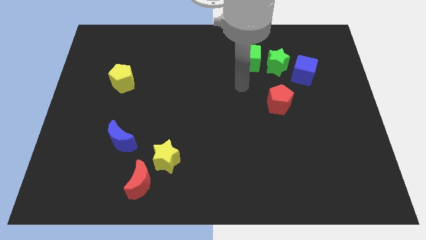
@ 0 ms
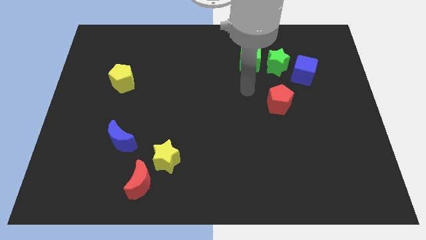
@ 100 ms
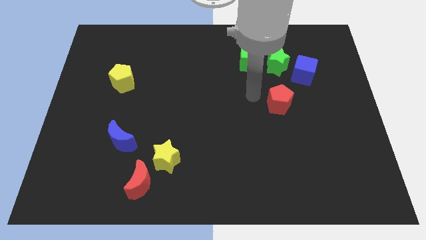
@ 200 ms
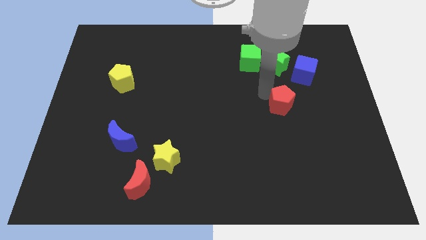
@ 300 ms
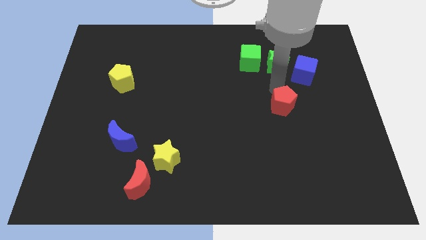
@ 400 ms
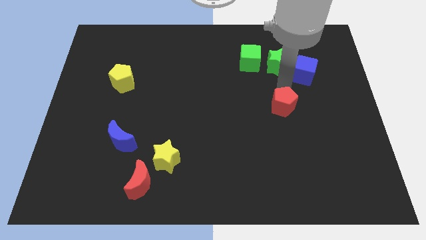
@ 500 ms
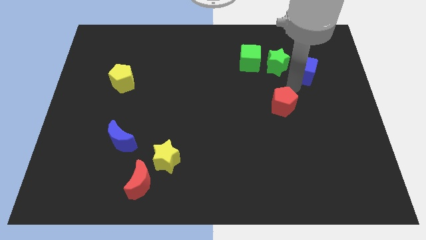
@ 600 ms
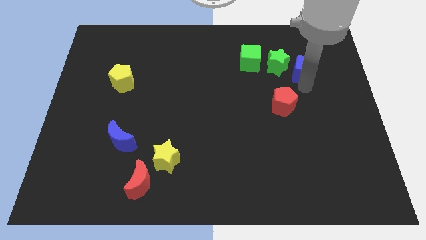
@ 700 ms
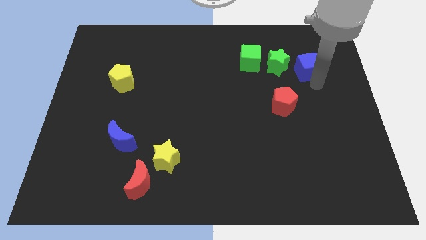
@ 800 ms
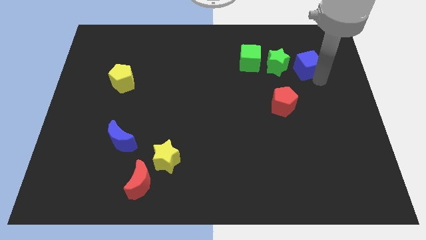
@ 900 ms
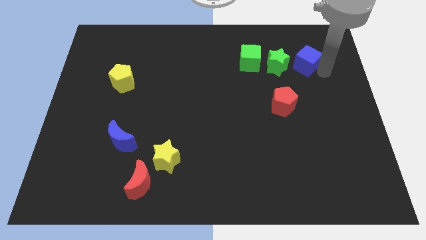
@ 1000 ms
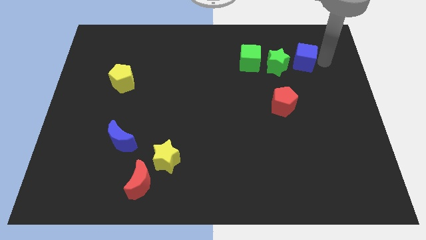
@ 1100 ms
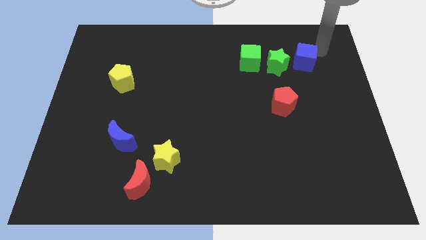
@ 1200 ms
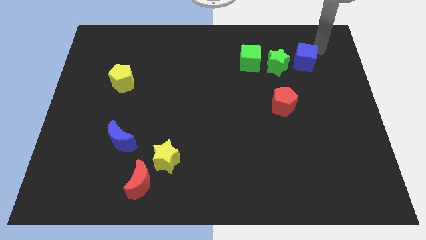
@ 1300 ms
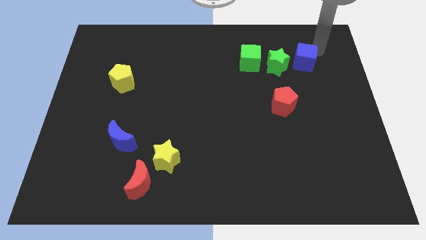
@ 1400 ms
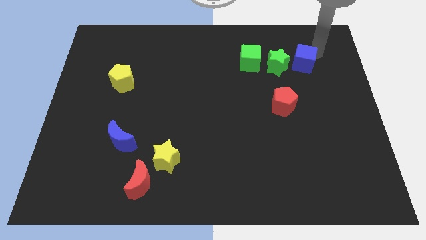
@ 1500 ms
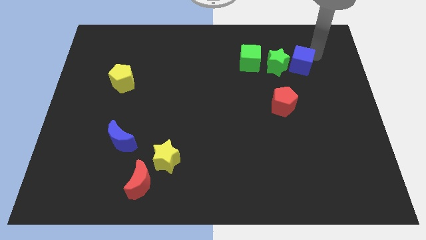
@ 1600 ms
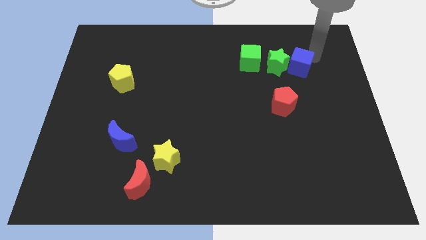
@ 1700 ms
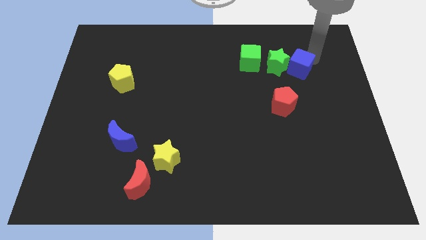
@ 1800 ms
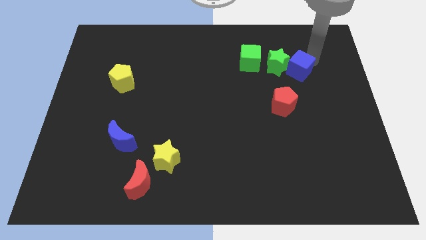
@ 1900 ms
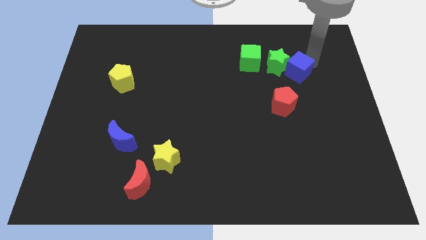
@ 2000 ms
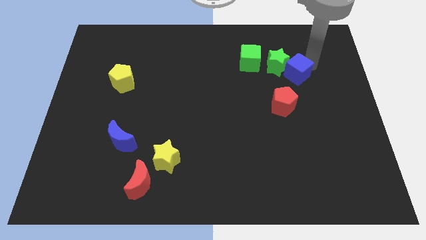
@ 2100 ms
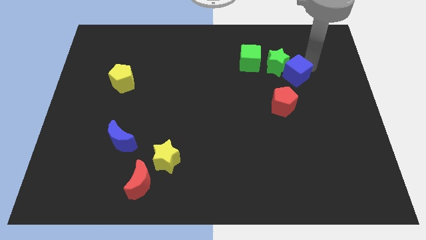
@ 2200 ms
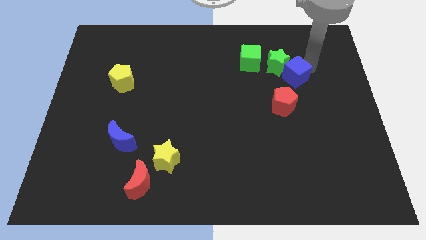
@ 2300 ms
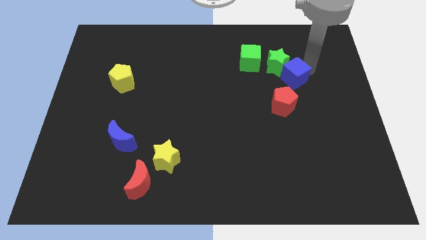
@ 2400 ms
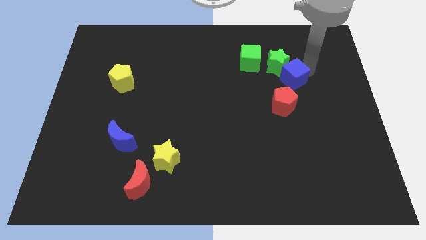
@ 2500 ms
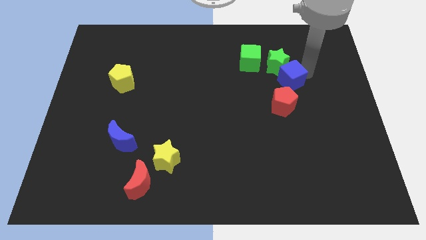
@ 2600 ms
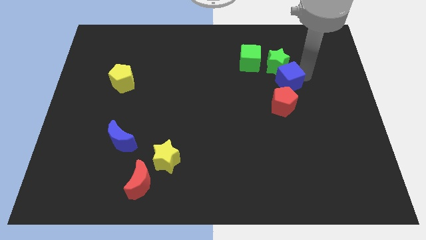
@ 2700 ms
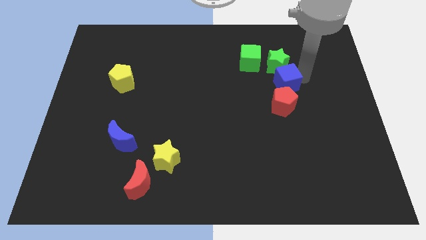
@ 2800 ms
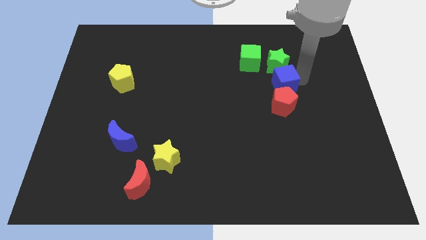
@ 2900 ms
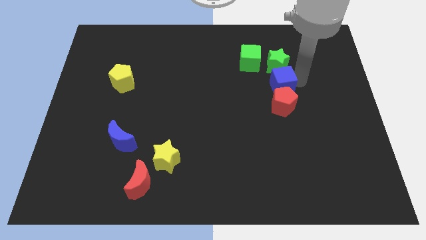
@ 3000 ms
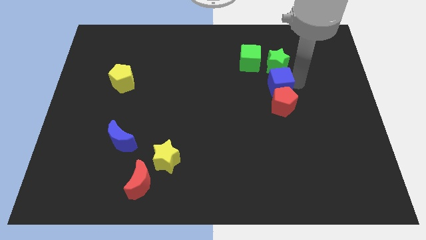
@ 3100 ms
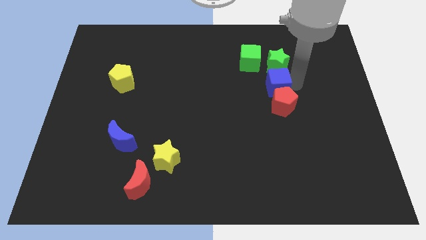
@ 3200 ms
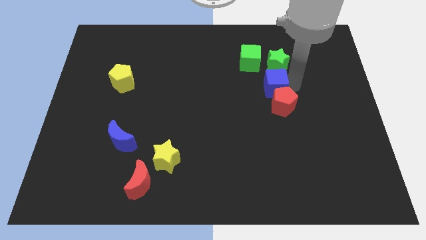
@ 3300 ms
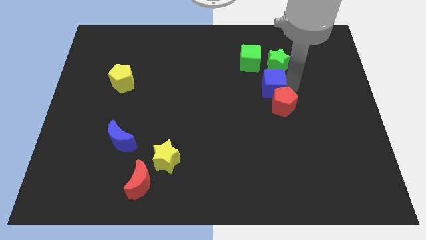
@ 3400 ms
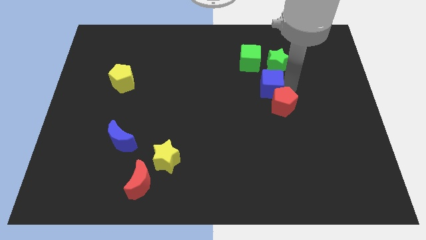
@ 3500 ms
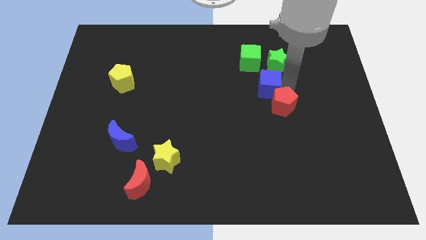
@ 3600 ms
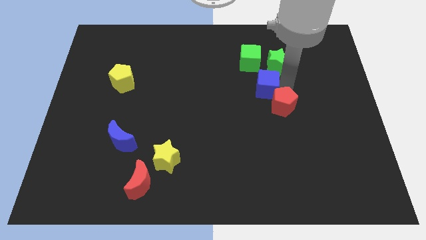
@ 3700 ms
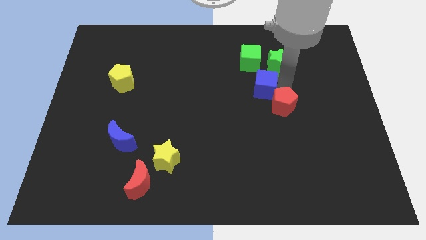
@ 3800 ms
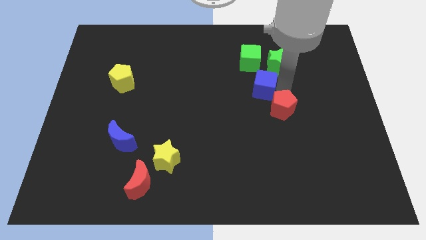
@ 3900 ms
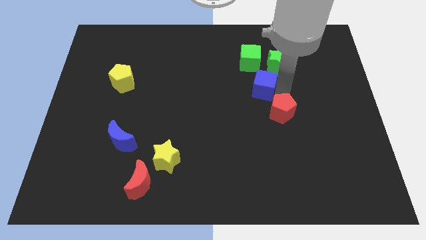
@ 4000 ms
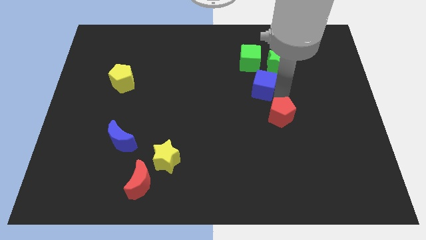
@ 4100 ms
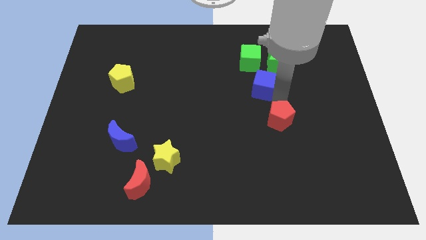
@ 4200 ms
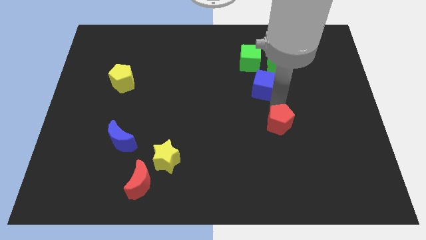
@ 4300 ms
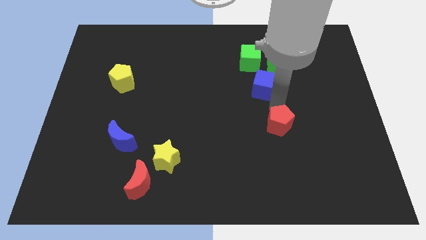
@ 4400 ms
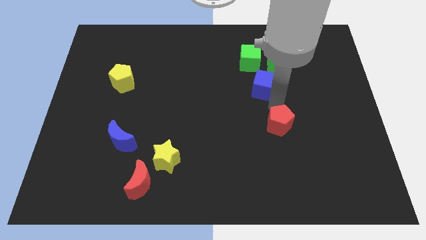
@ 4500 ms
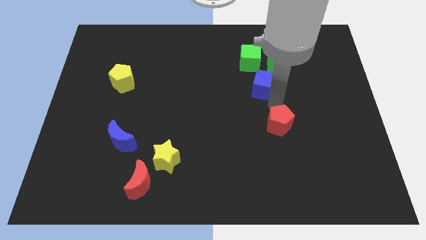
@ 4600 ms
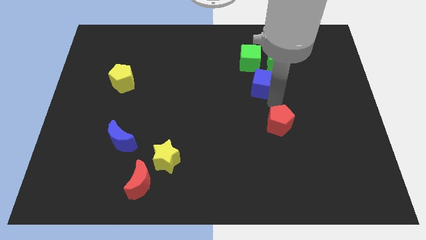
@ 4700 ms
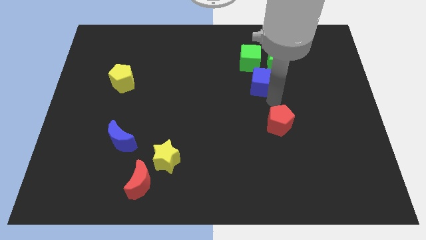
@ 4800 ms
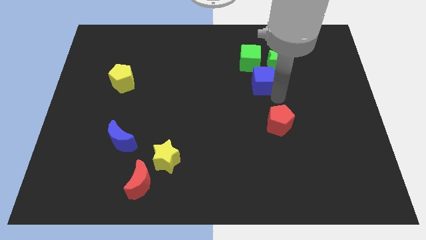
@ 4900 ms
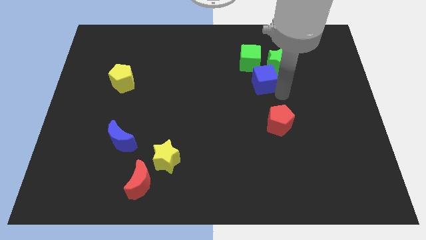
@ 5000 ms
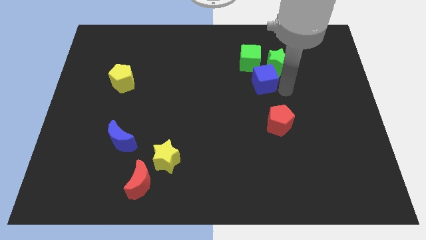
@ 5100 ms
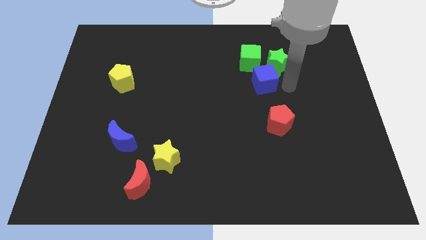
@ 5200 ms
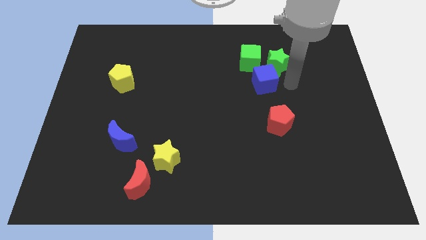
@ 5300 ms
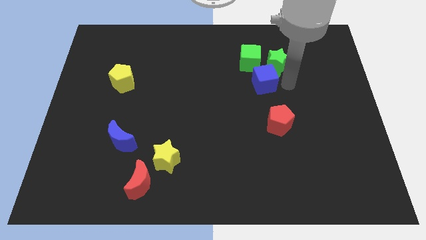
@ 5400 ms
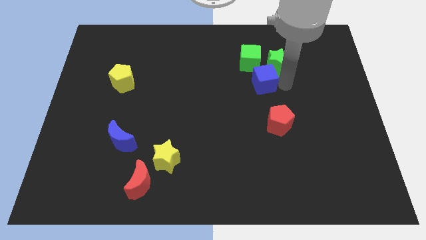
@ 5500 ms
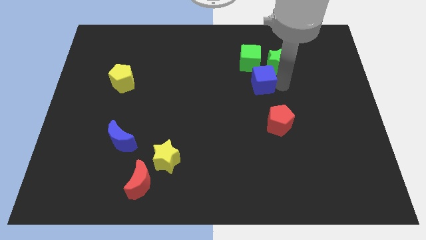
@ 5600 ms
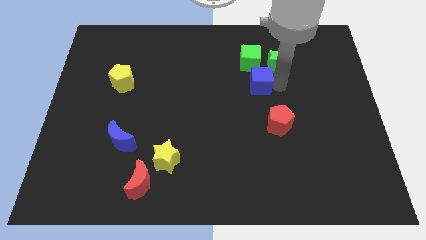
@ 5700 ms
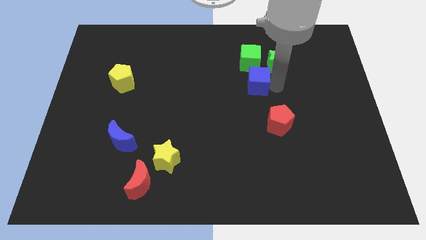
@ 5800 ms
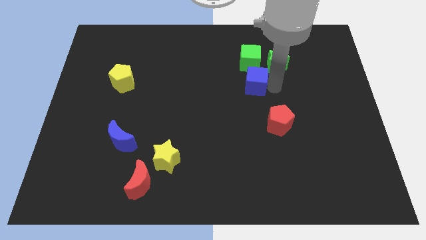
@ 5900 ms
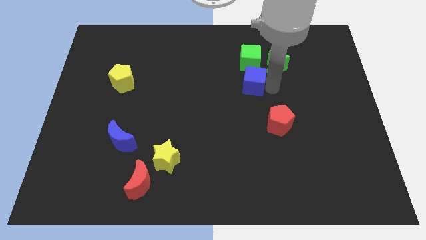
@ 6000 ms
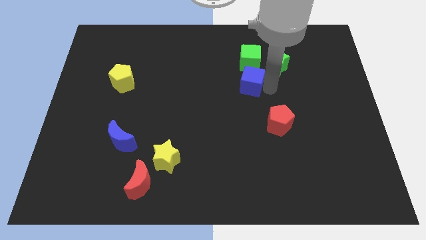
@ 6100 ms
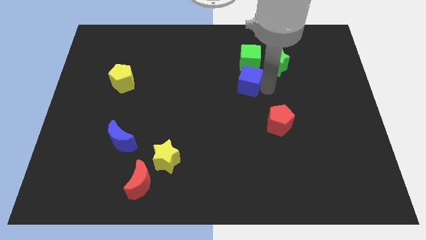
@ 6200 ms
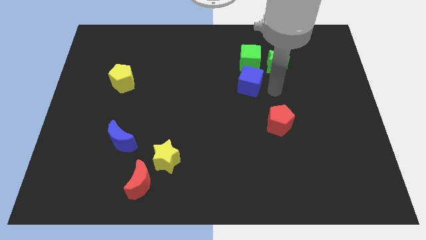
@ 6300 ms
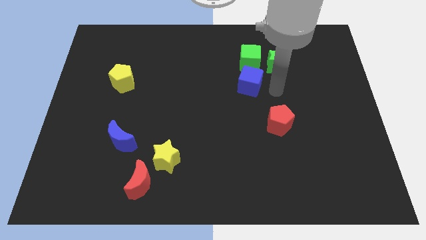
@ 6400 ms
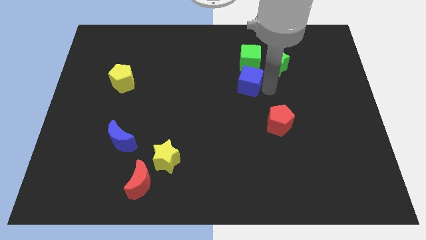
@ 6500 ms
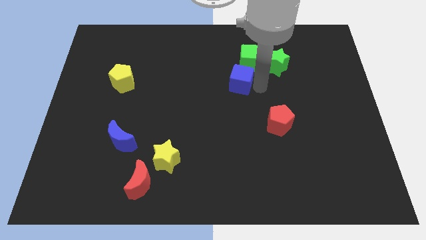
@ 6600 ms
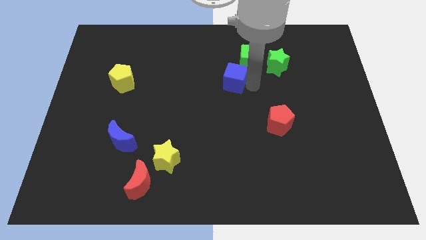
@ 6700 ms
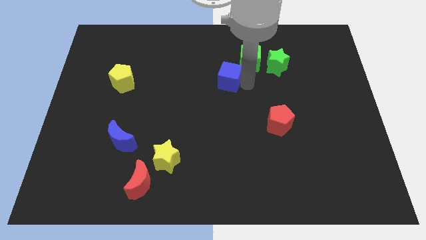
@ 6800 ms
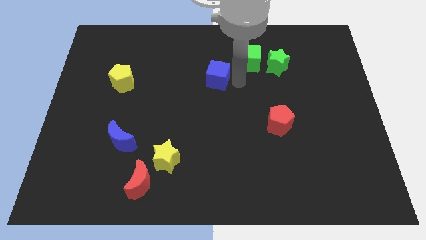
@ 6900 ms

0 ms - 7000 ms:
push the blue cube to the left

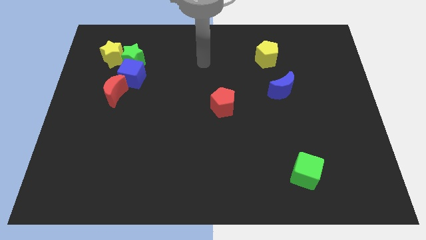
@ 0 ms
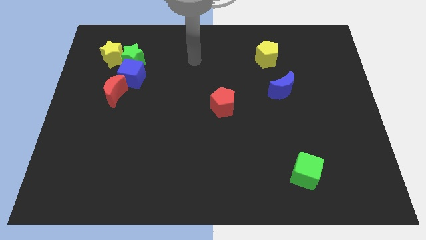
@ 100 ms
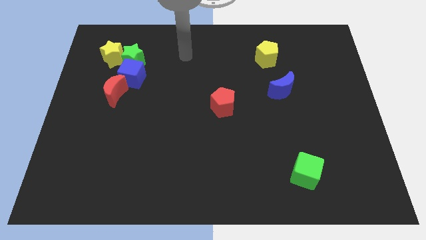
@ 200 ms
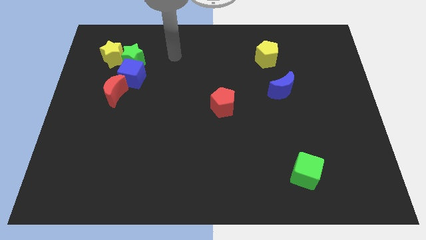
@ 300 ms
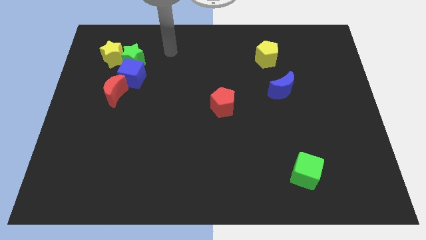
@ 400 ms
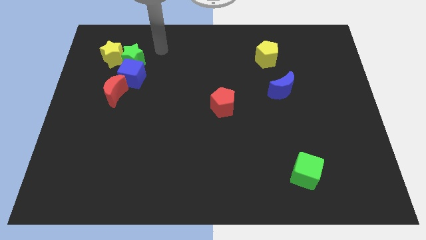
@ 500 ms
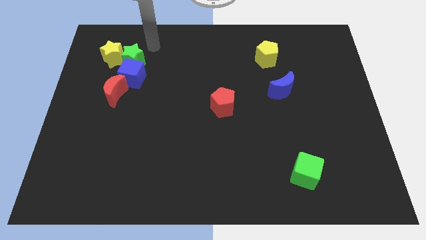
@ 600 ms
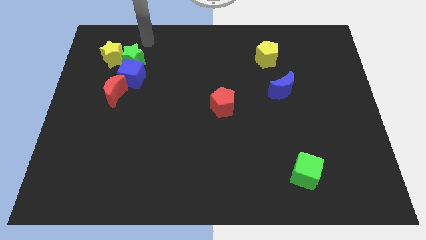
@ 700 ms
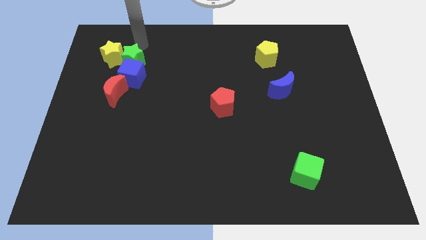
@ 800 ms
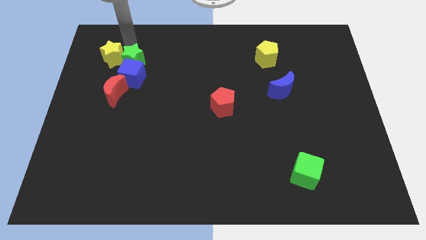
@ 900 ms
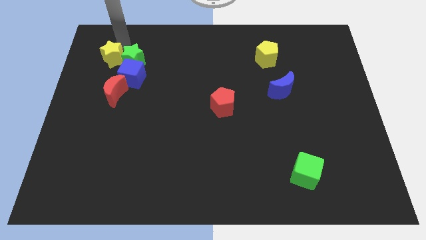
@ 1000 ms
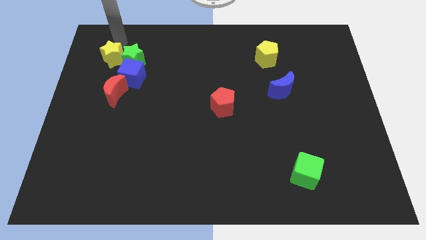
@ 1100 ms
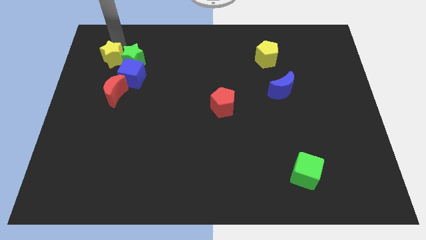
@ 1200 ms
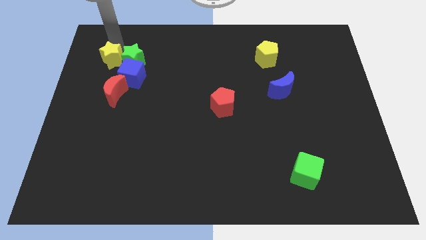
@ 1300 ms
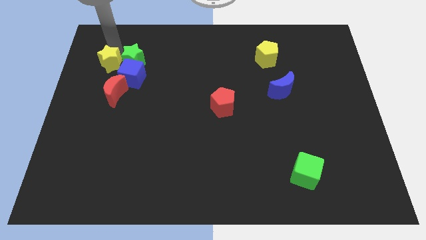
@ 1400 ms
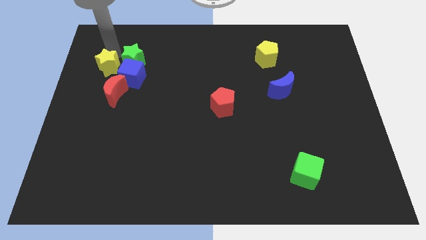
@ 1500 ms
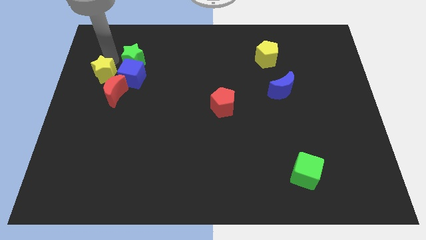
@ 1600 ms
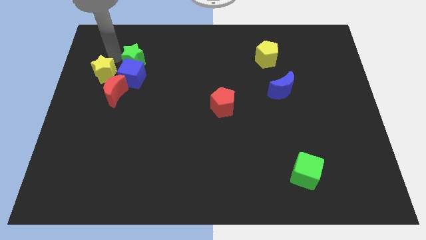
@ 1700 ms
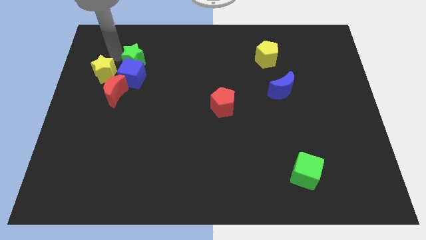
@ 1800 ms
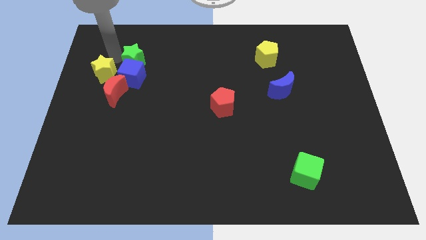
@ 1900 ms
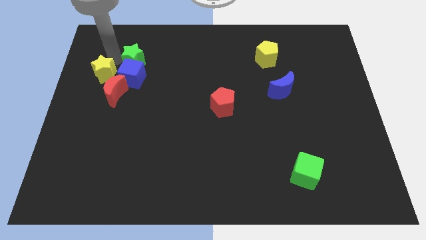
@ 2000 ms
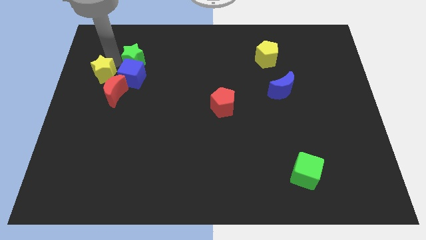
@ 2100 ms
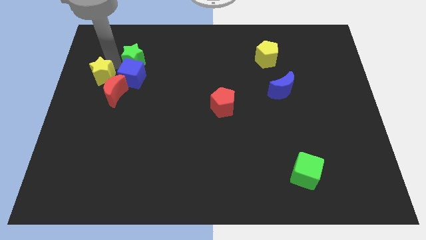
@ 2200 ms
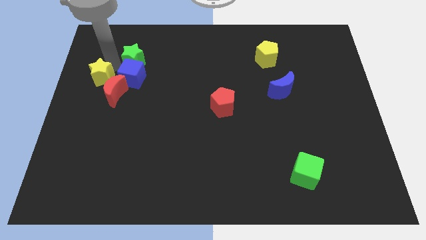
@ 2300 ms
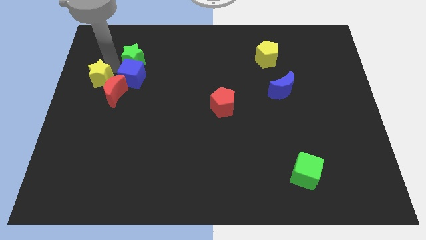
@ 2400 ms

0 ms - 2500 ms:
push the yellow star a little bit down
